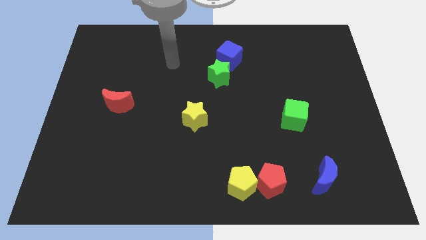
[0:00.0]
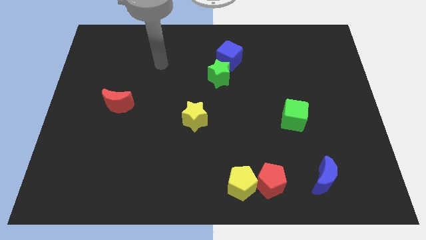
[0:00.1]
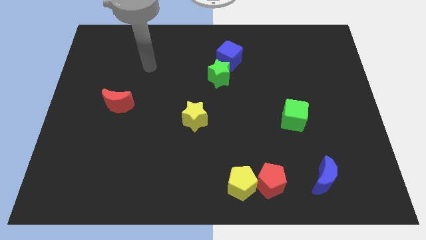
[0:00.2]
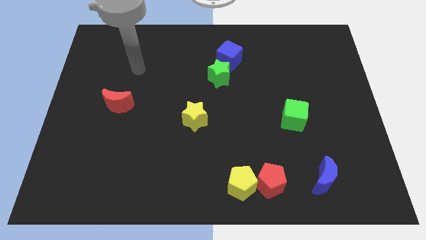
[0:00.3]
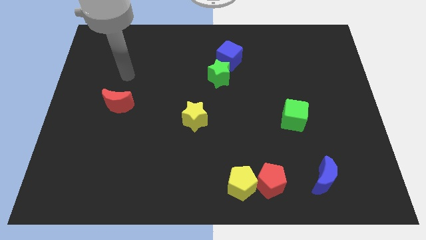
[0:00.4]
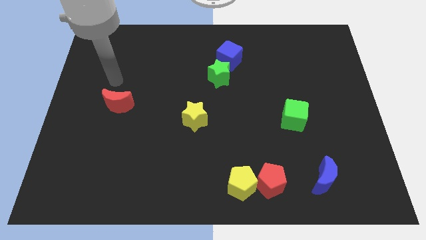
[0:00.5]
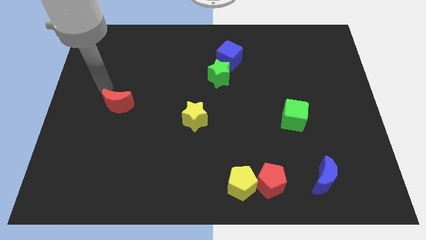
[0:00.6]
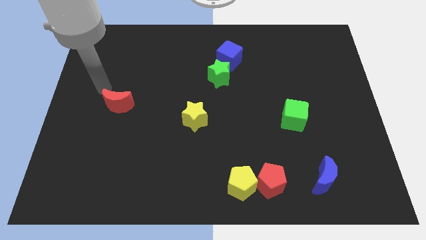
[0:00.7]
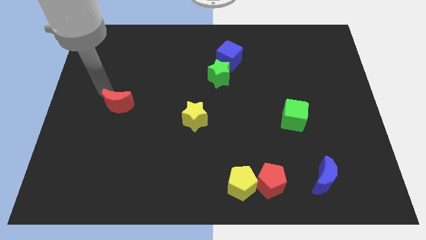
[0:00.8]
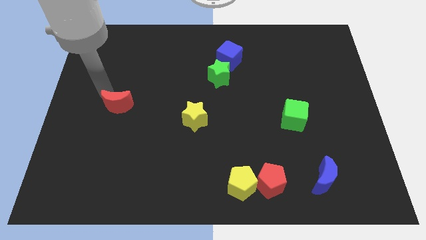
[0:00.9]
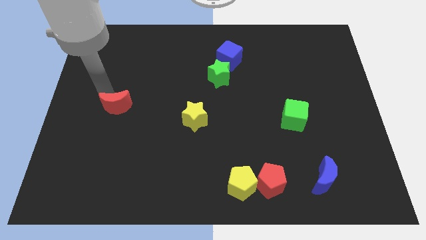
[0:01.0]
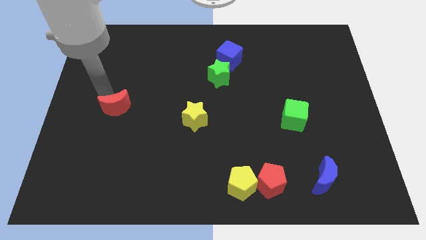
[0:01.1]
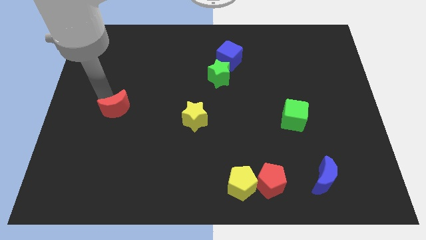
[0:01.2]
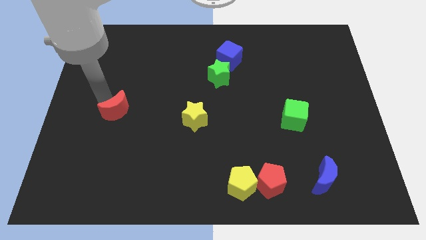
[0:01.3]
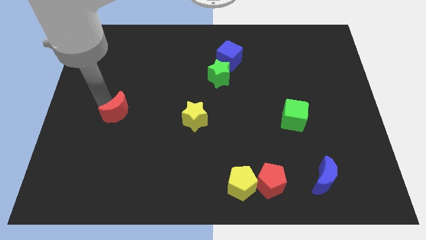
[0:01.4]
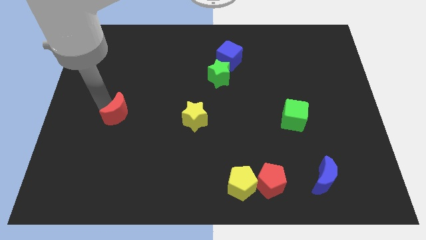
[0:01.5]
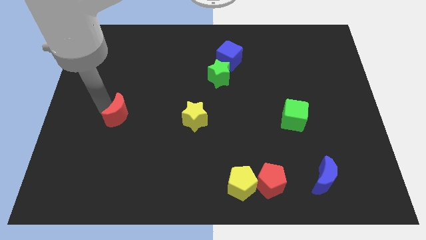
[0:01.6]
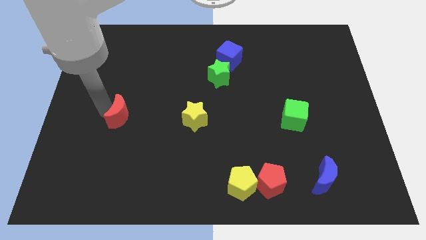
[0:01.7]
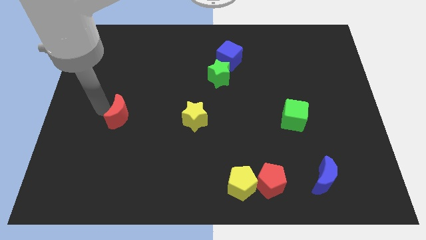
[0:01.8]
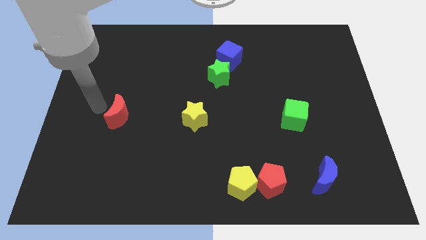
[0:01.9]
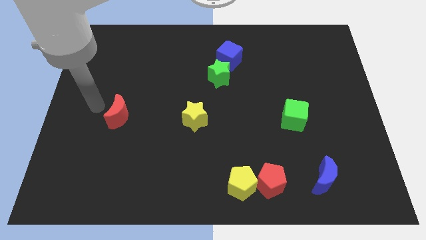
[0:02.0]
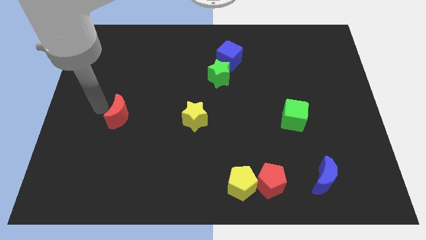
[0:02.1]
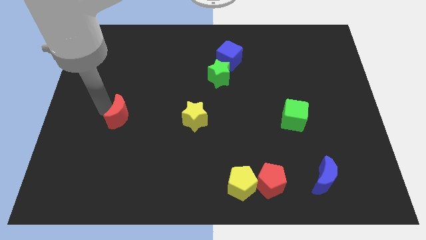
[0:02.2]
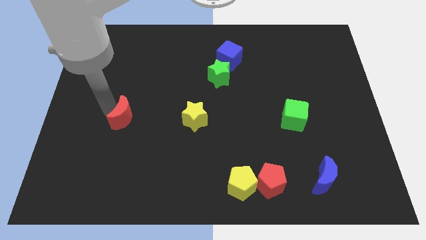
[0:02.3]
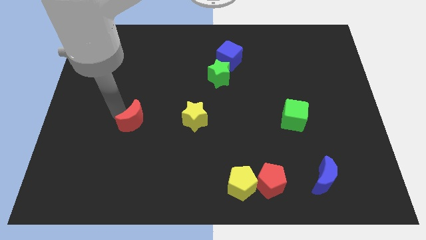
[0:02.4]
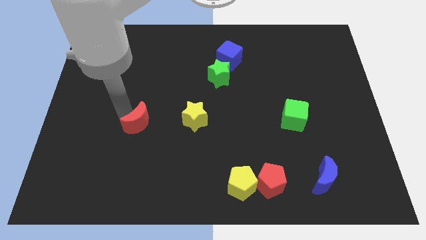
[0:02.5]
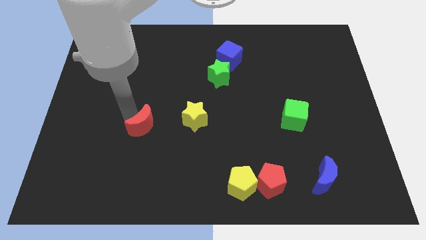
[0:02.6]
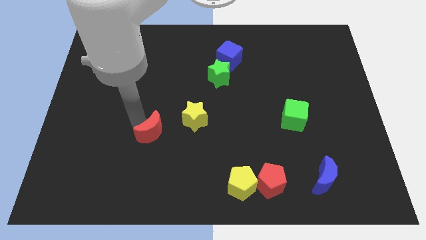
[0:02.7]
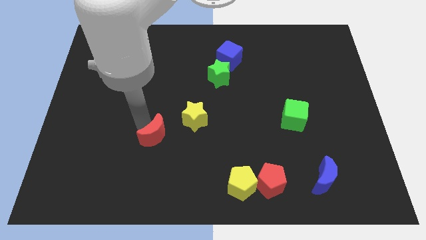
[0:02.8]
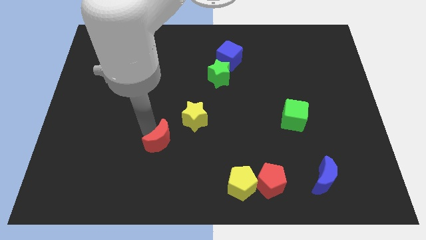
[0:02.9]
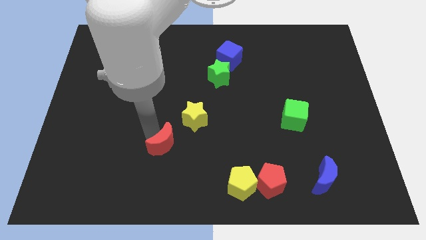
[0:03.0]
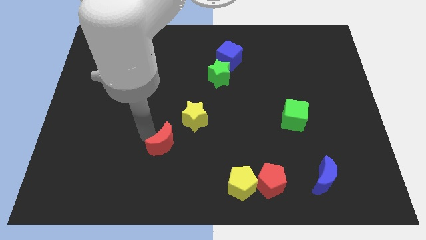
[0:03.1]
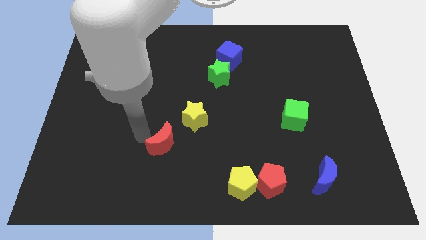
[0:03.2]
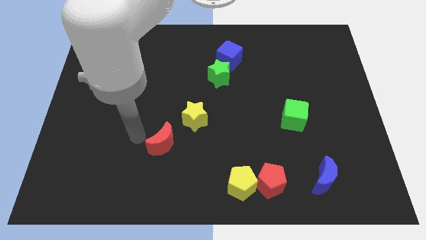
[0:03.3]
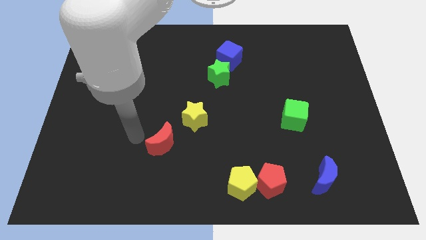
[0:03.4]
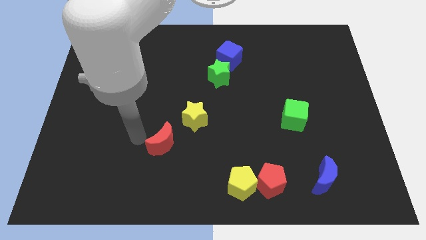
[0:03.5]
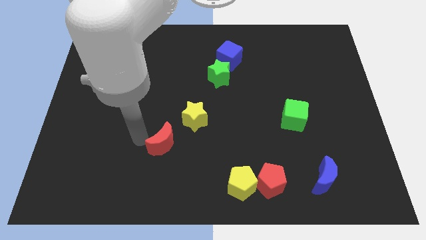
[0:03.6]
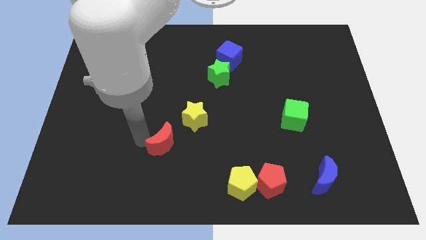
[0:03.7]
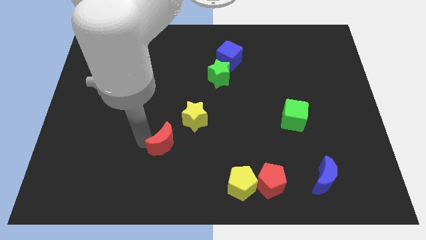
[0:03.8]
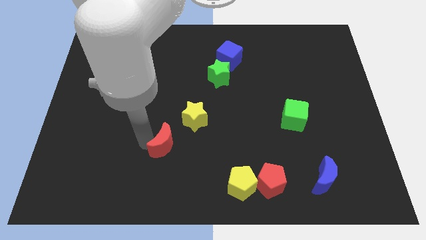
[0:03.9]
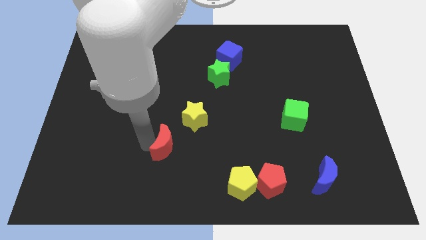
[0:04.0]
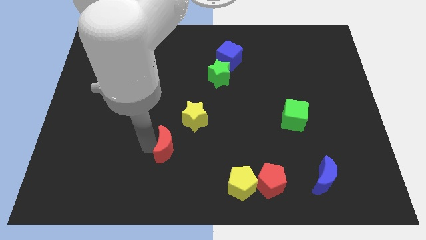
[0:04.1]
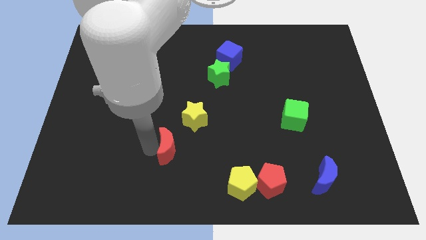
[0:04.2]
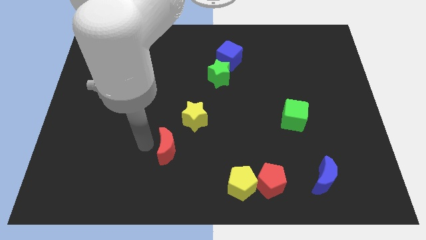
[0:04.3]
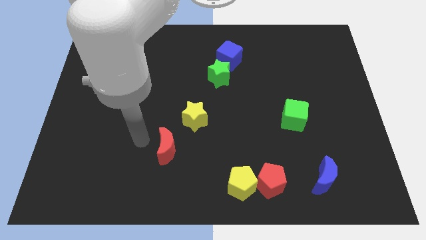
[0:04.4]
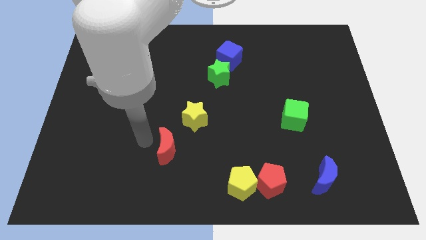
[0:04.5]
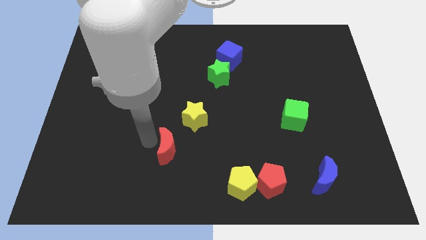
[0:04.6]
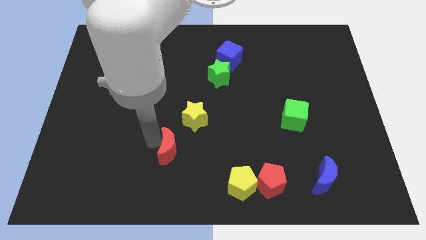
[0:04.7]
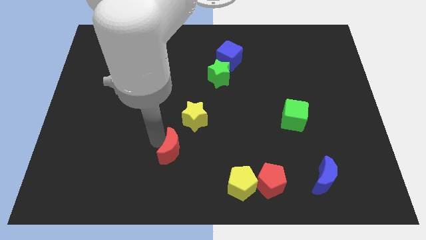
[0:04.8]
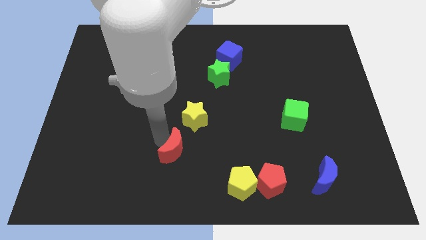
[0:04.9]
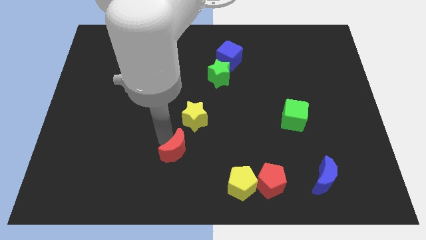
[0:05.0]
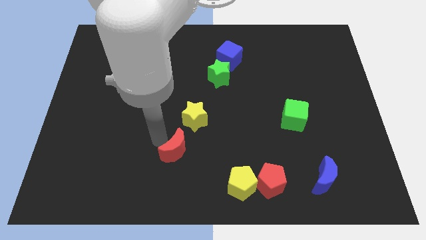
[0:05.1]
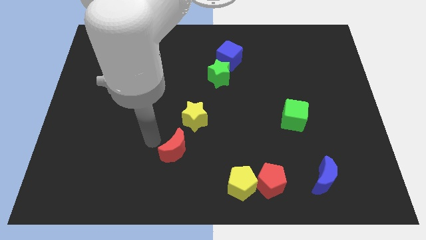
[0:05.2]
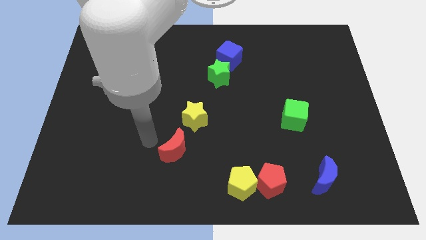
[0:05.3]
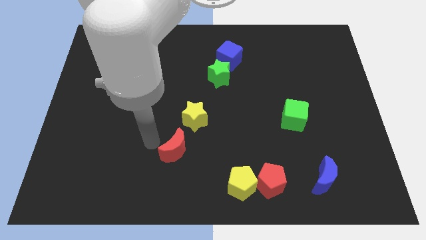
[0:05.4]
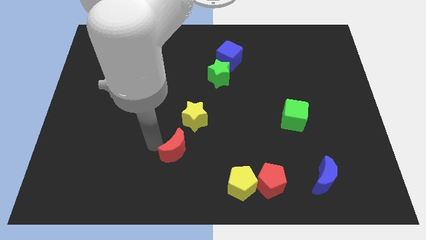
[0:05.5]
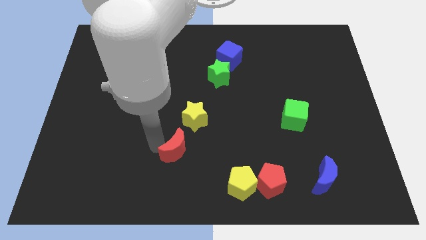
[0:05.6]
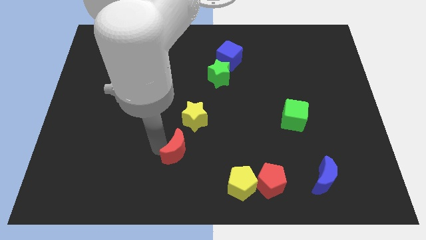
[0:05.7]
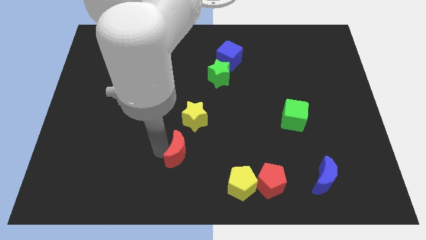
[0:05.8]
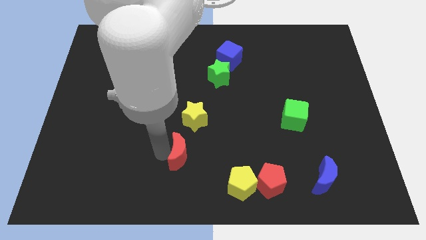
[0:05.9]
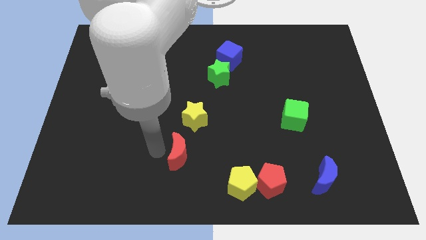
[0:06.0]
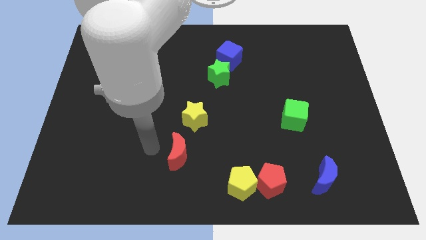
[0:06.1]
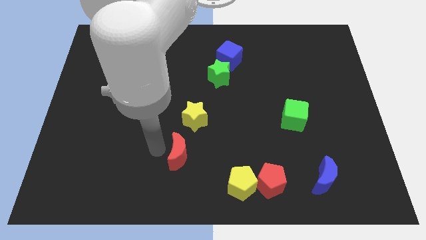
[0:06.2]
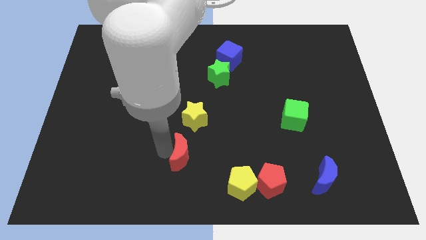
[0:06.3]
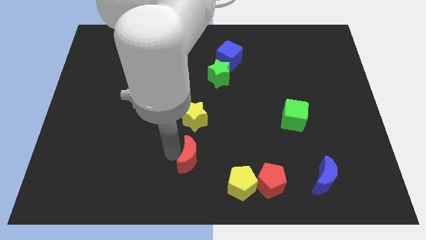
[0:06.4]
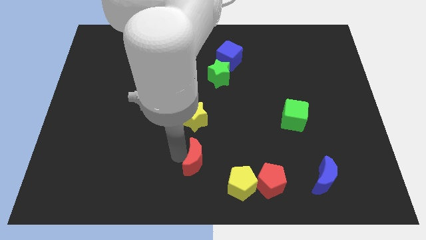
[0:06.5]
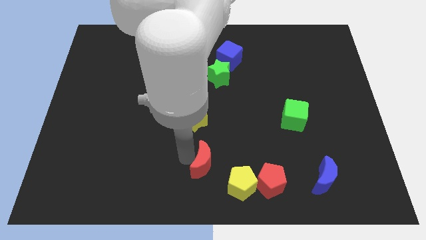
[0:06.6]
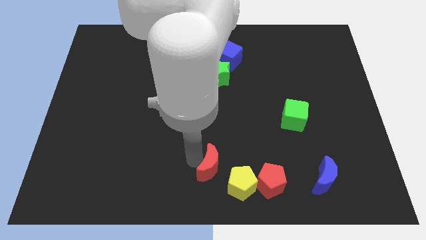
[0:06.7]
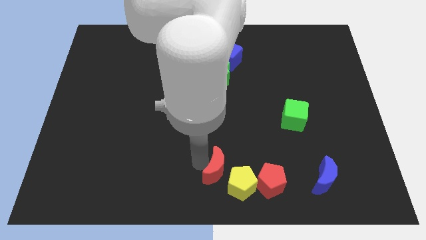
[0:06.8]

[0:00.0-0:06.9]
move the red moon to the yellow pentagon
